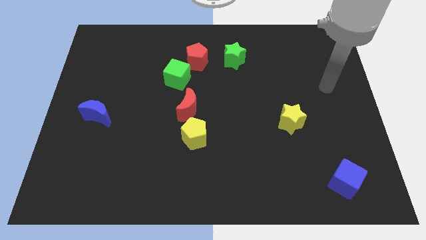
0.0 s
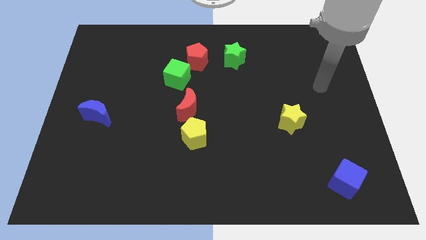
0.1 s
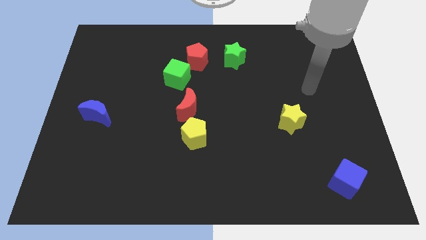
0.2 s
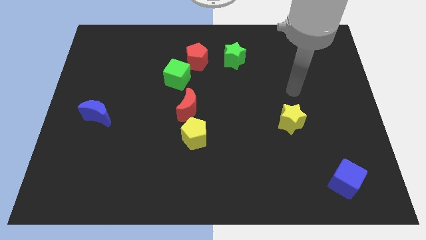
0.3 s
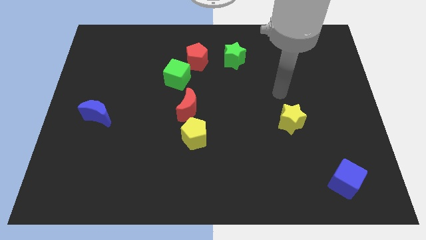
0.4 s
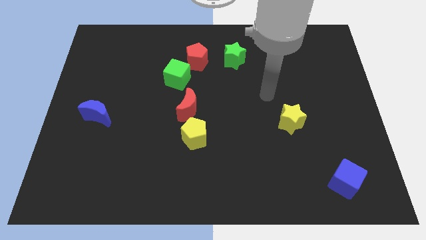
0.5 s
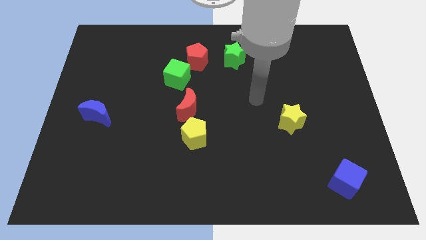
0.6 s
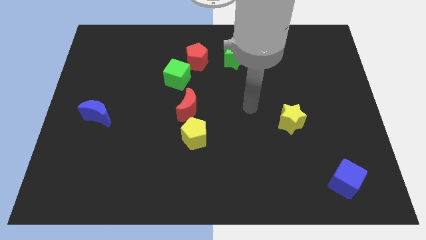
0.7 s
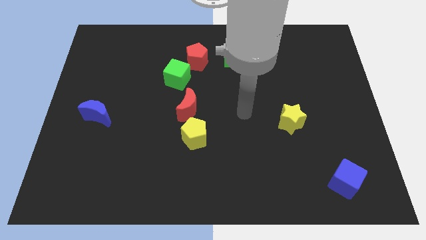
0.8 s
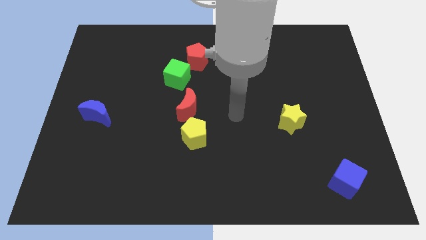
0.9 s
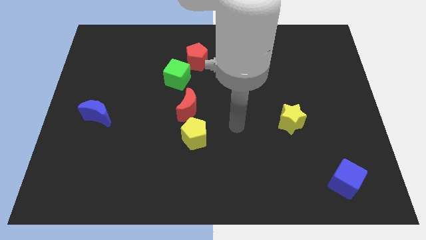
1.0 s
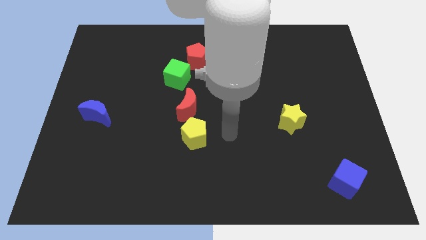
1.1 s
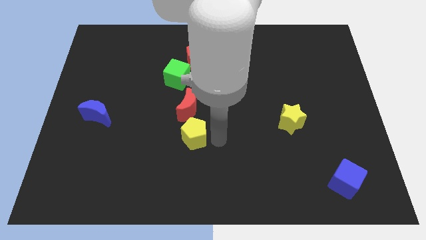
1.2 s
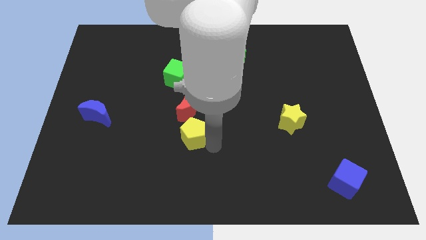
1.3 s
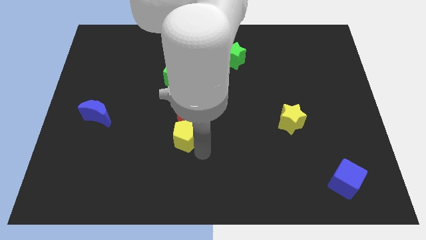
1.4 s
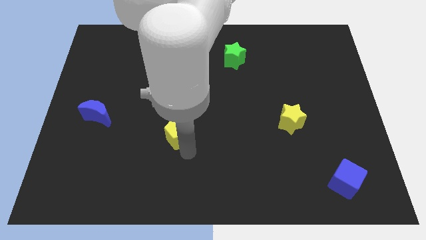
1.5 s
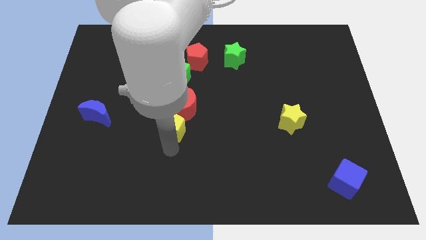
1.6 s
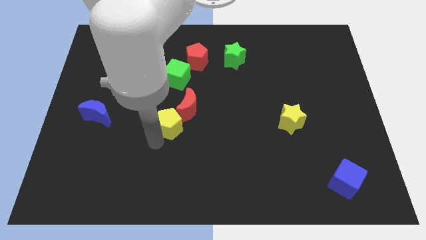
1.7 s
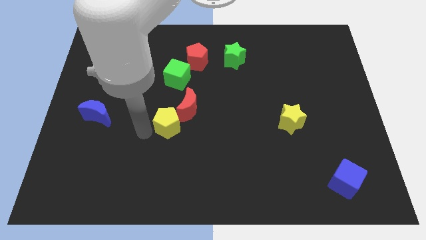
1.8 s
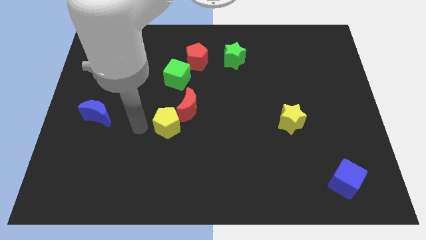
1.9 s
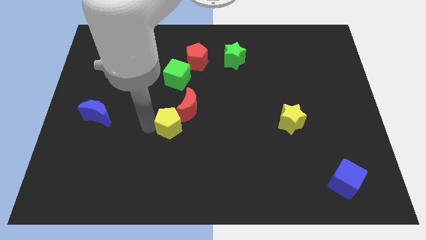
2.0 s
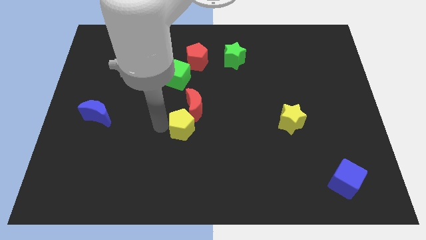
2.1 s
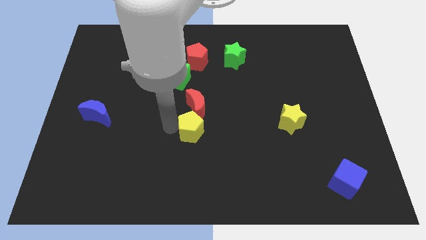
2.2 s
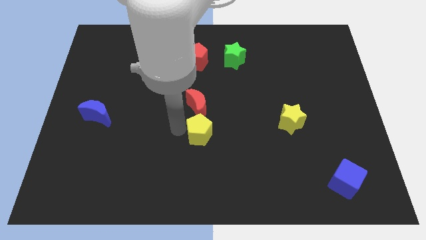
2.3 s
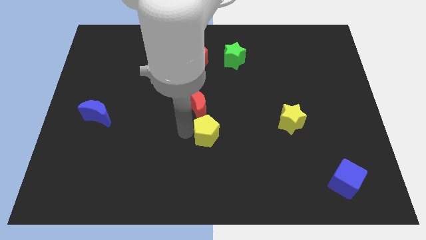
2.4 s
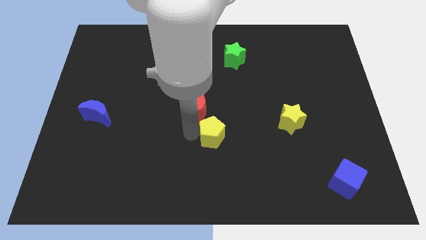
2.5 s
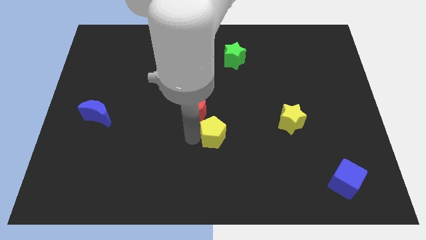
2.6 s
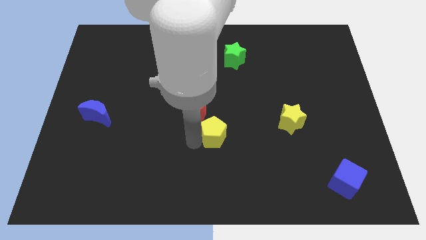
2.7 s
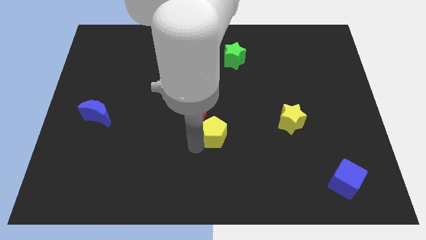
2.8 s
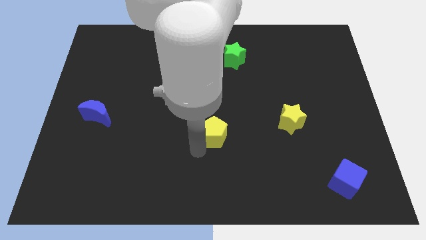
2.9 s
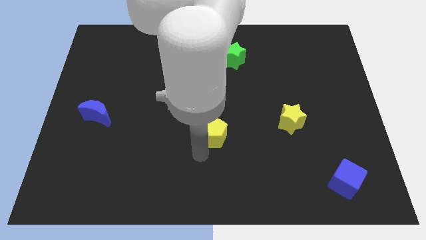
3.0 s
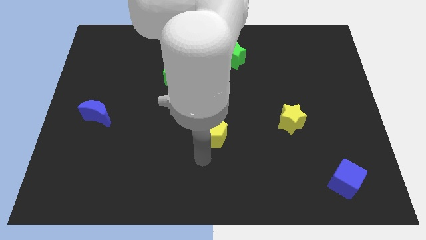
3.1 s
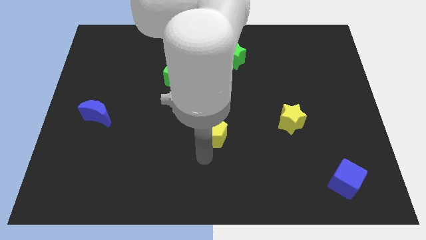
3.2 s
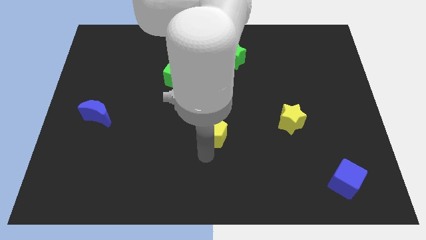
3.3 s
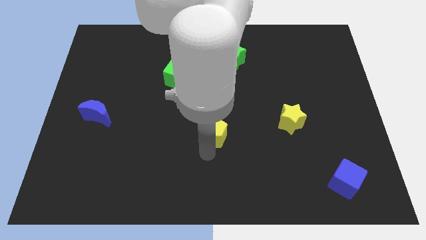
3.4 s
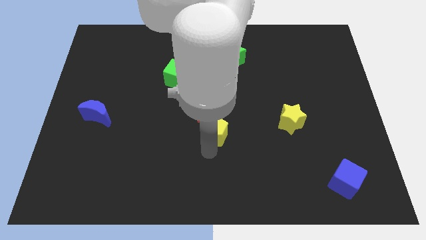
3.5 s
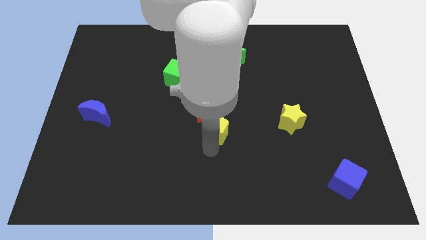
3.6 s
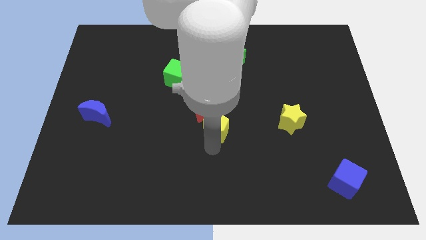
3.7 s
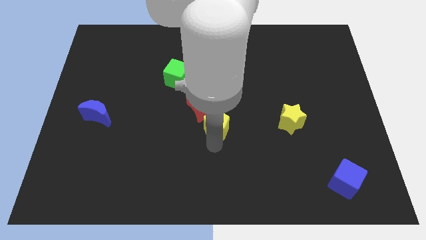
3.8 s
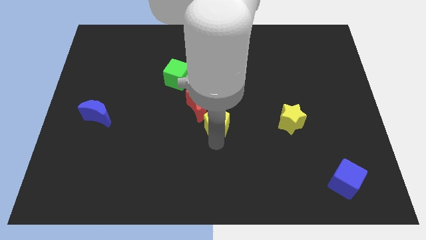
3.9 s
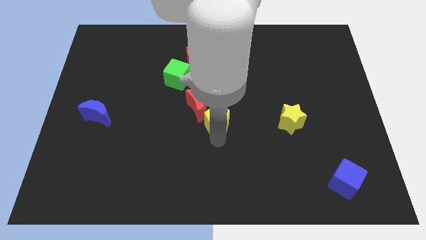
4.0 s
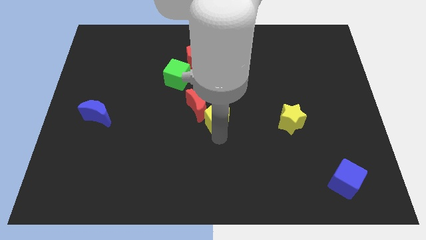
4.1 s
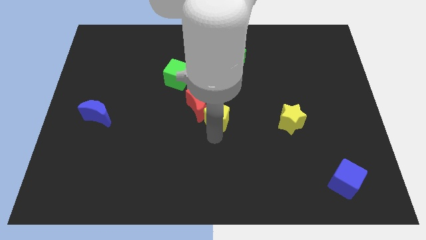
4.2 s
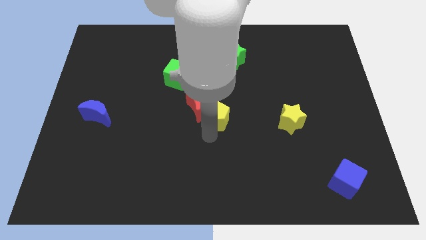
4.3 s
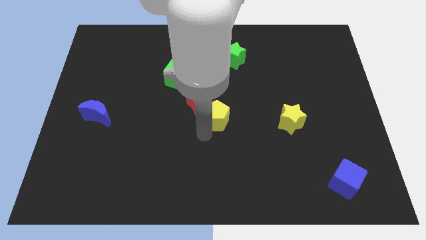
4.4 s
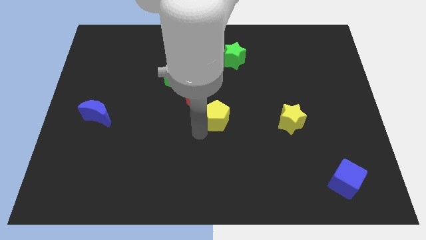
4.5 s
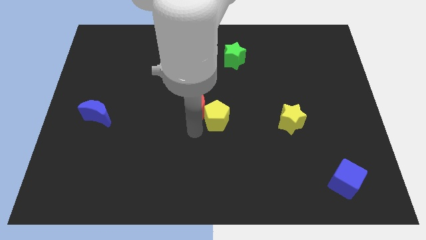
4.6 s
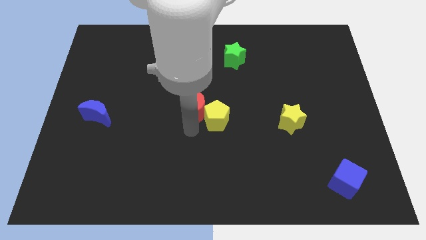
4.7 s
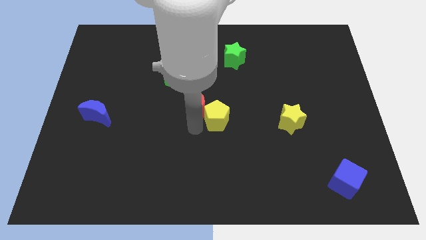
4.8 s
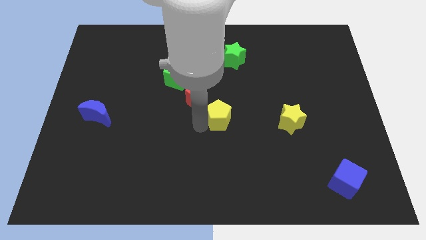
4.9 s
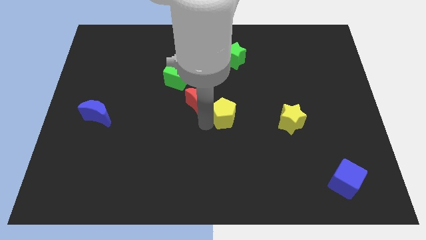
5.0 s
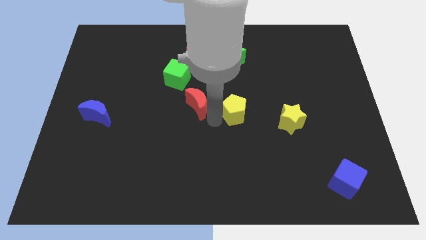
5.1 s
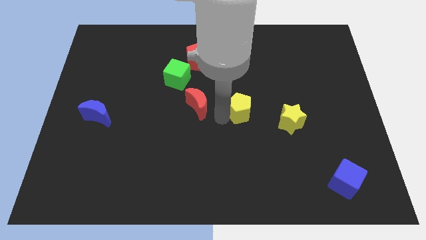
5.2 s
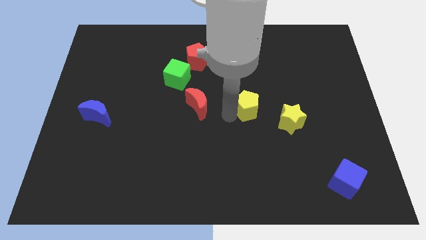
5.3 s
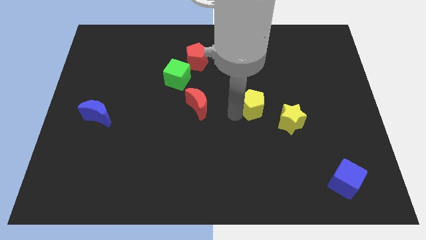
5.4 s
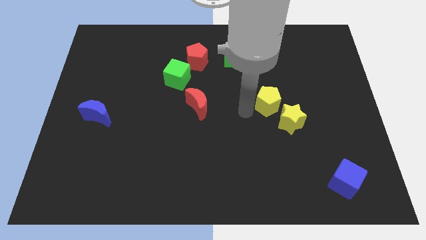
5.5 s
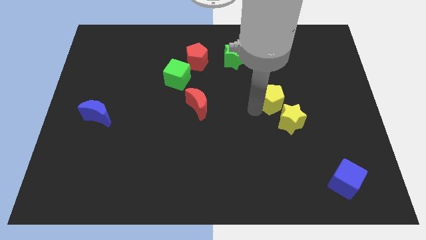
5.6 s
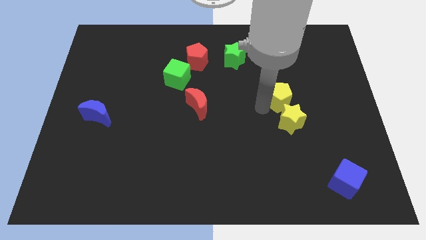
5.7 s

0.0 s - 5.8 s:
slide the yellow pentagon up and right

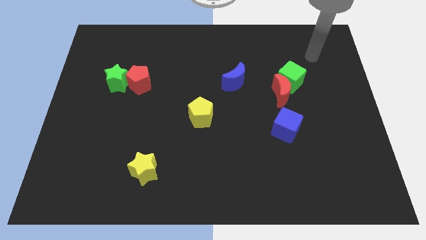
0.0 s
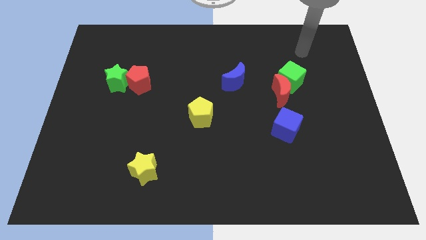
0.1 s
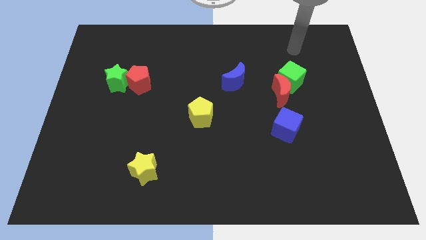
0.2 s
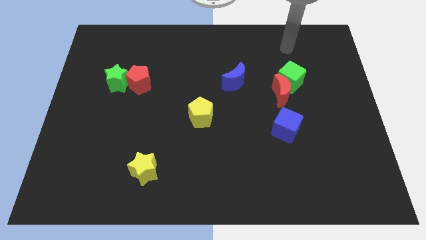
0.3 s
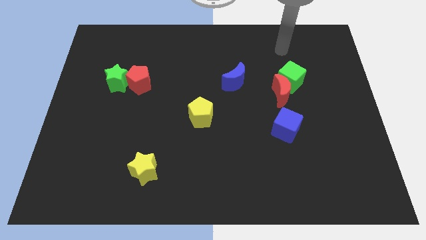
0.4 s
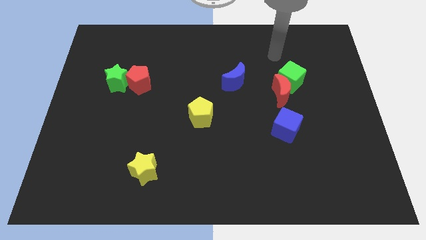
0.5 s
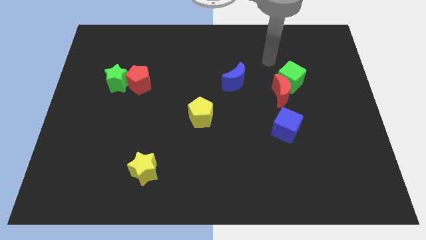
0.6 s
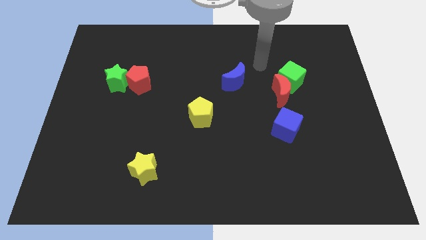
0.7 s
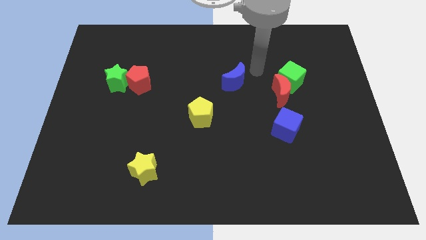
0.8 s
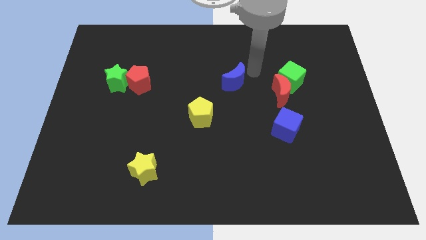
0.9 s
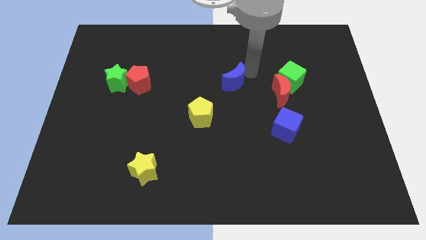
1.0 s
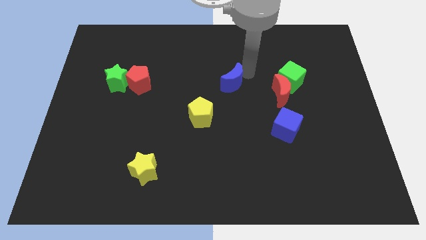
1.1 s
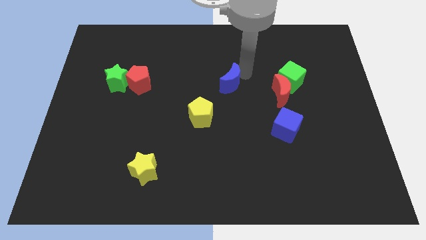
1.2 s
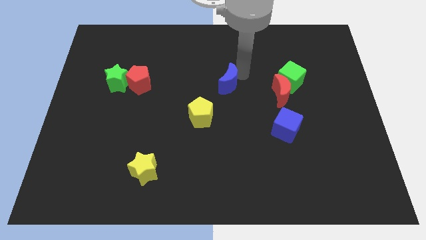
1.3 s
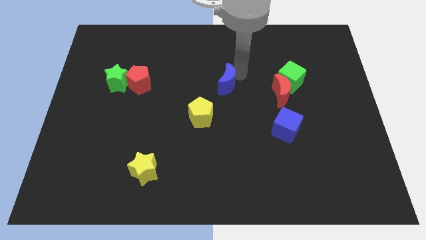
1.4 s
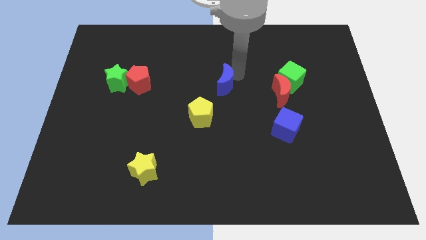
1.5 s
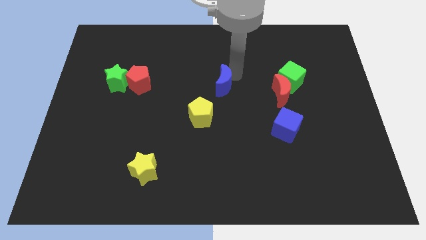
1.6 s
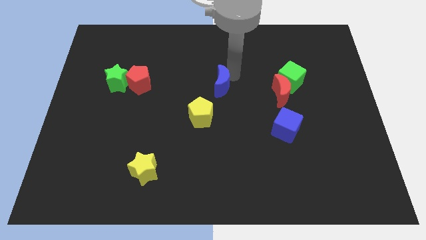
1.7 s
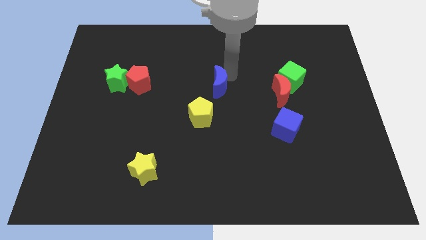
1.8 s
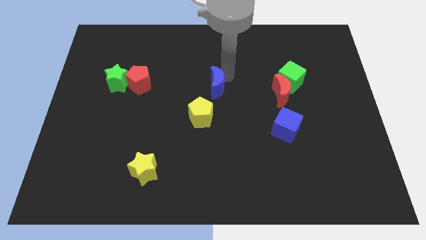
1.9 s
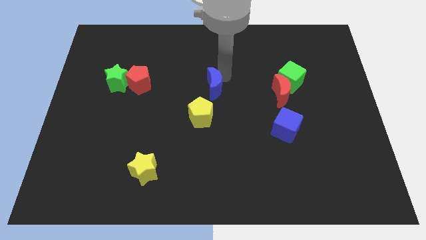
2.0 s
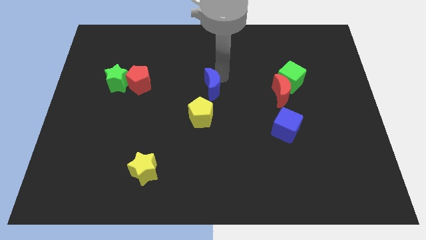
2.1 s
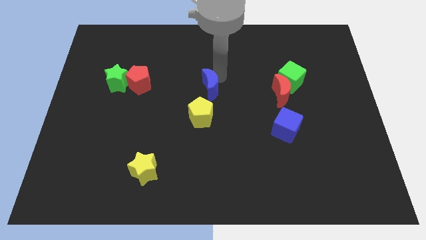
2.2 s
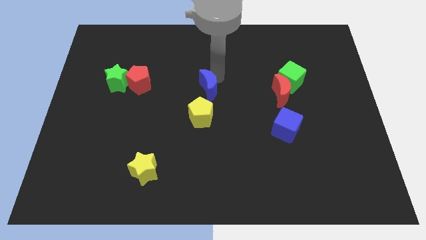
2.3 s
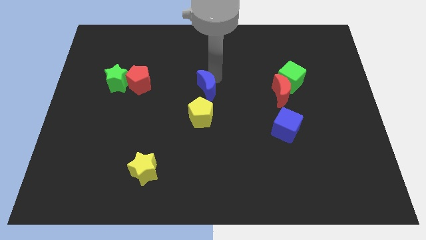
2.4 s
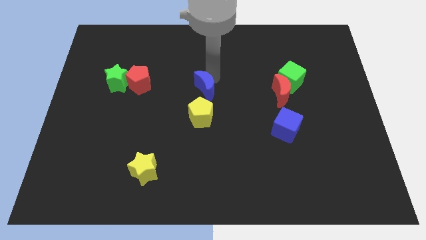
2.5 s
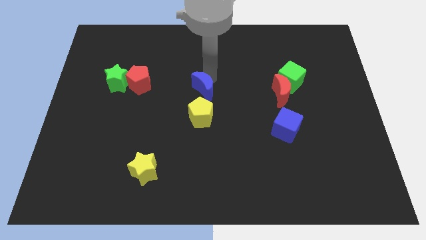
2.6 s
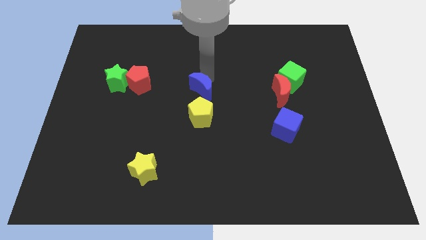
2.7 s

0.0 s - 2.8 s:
slightly slide the blue moon downwards and to the left diagonally

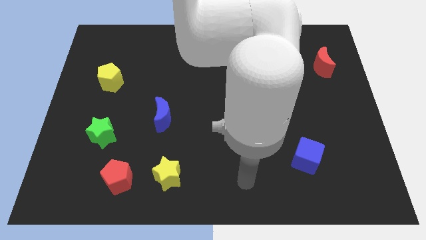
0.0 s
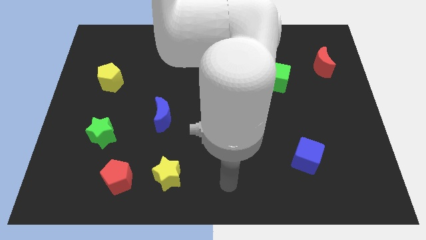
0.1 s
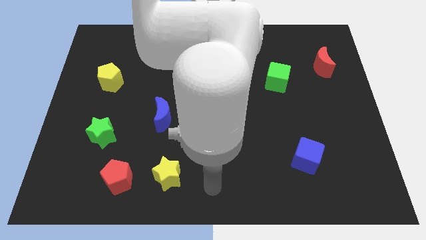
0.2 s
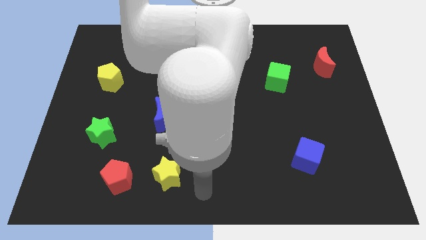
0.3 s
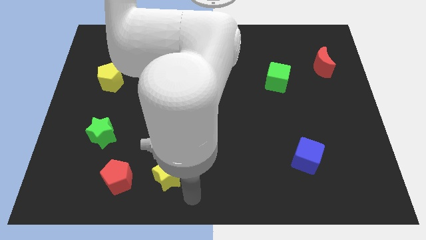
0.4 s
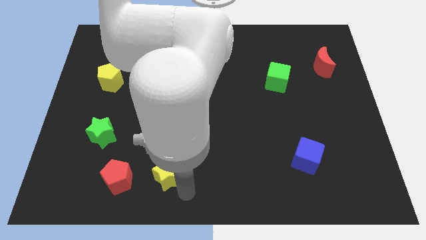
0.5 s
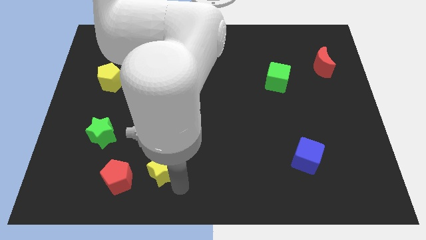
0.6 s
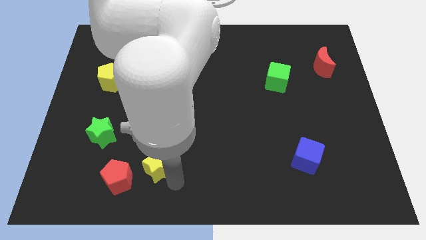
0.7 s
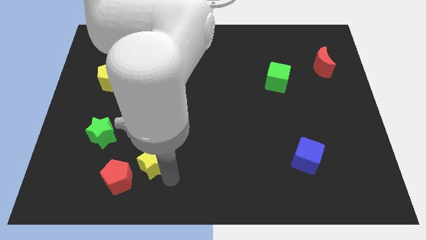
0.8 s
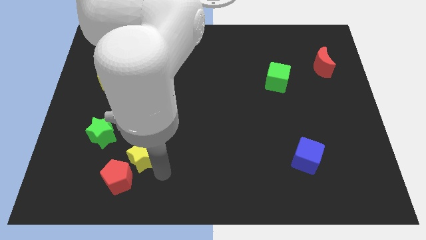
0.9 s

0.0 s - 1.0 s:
move the yellow star a little up and left diagonally
